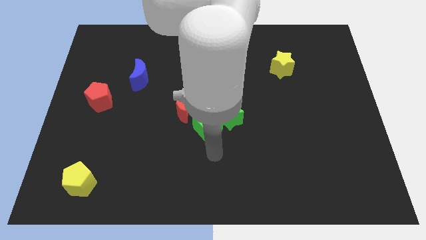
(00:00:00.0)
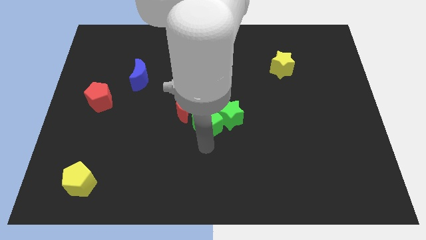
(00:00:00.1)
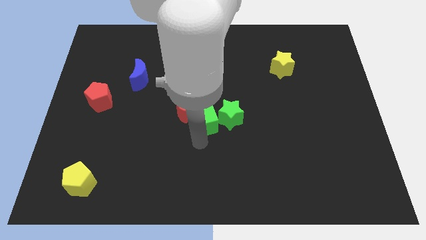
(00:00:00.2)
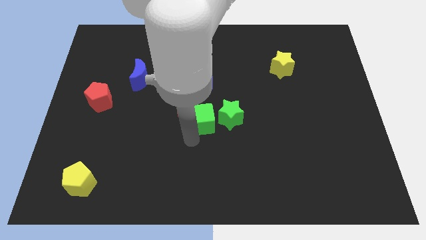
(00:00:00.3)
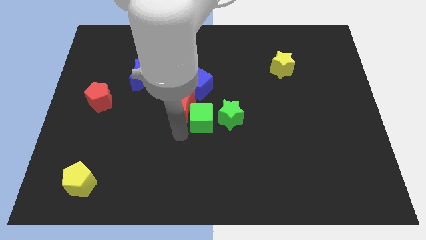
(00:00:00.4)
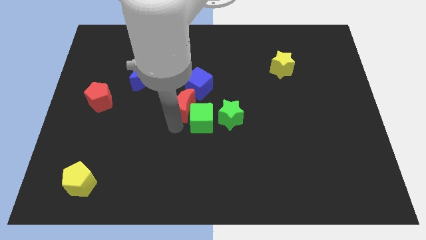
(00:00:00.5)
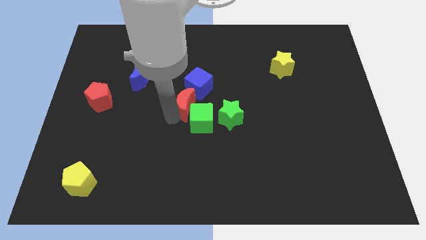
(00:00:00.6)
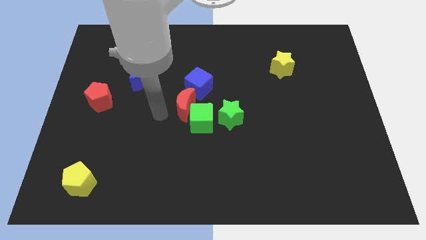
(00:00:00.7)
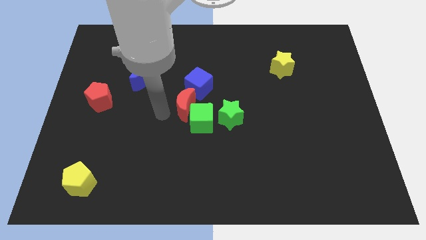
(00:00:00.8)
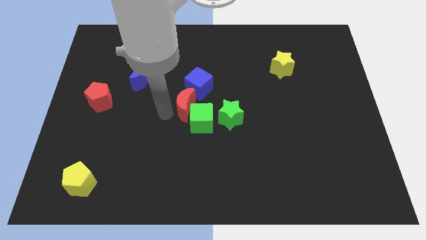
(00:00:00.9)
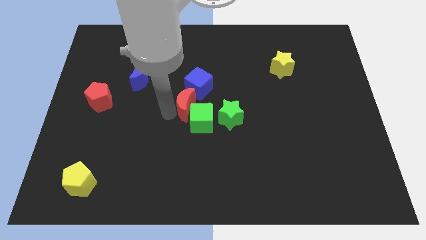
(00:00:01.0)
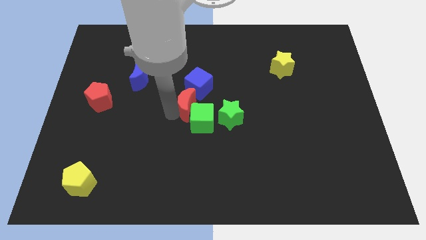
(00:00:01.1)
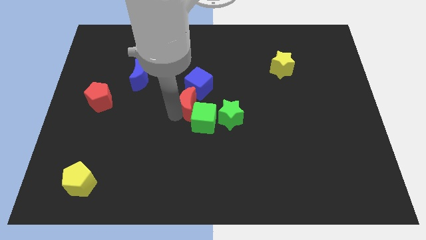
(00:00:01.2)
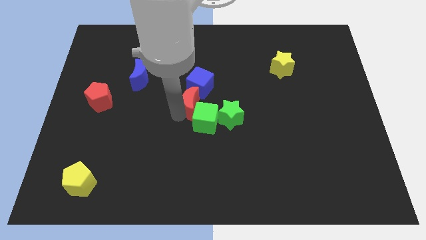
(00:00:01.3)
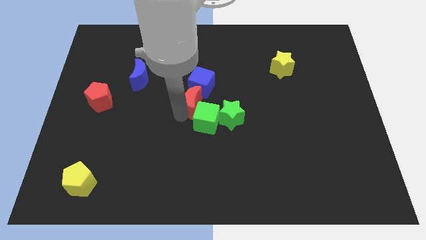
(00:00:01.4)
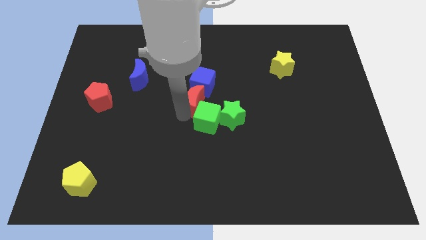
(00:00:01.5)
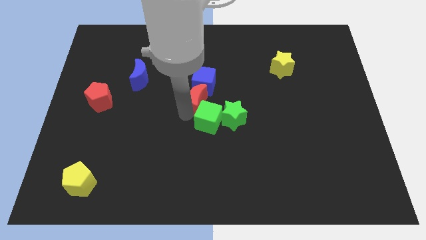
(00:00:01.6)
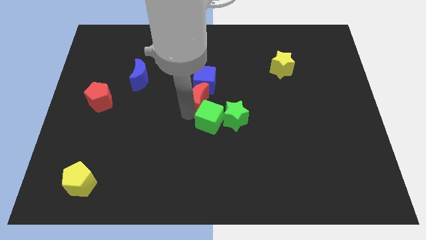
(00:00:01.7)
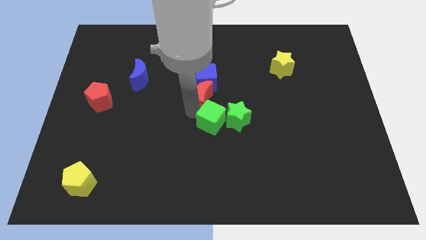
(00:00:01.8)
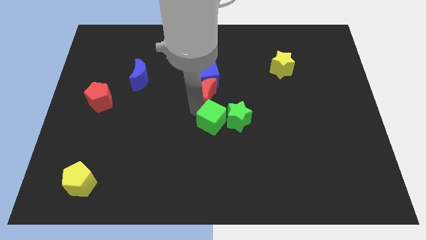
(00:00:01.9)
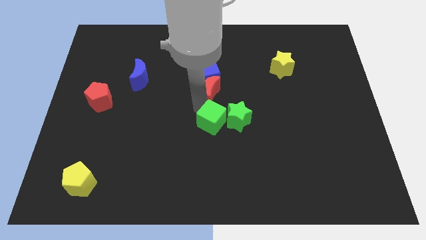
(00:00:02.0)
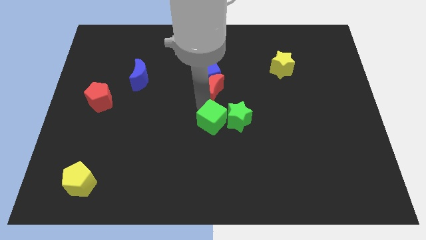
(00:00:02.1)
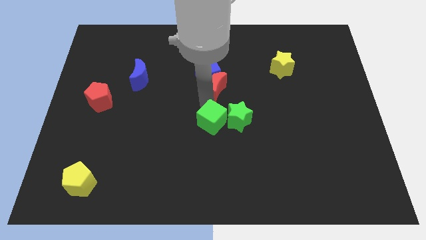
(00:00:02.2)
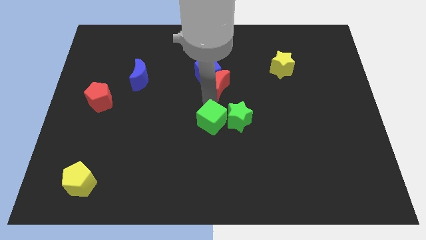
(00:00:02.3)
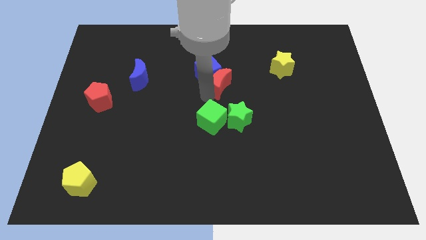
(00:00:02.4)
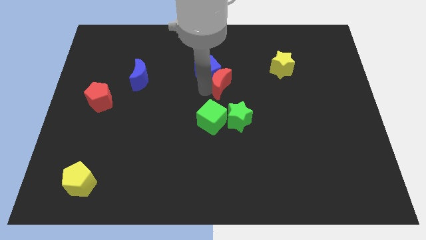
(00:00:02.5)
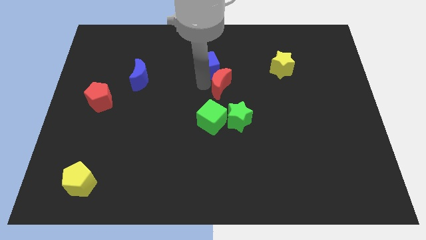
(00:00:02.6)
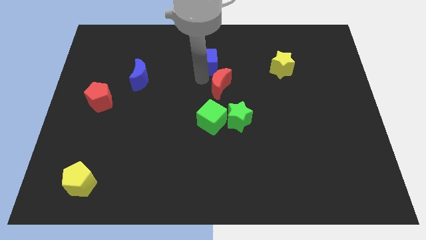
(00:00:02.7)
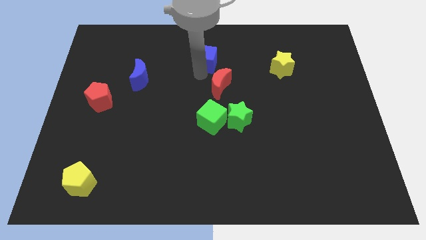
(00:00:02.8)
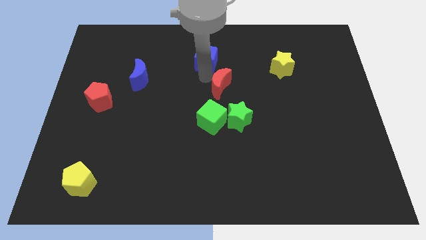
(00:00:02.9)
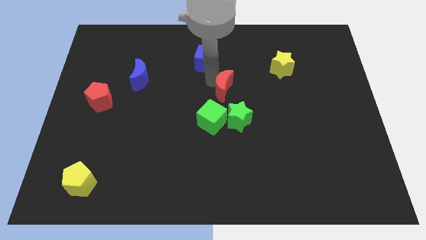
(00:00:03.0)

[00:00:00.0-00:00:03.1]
slightly slide the red moon to the right

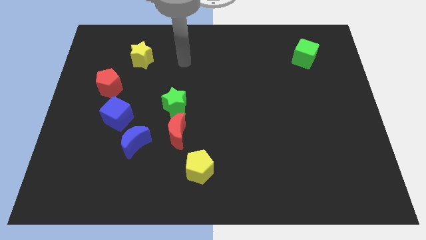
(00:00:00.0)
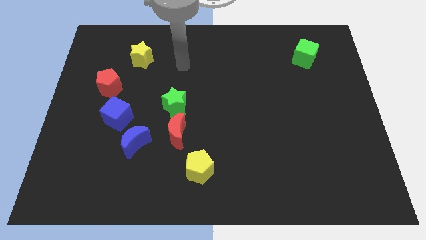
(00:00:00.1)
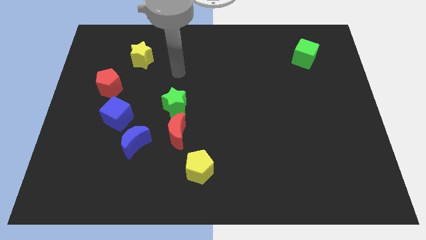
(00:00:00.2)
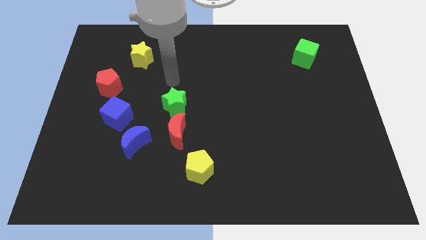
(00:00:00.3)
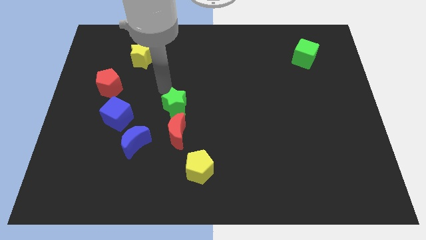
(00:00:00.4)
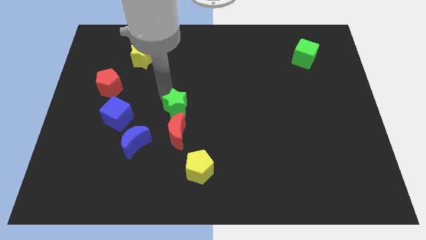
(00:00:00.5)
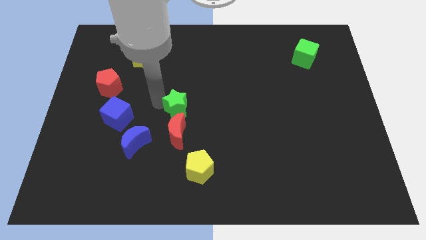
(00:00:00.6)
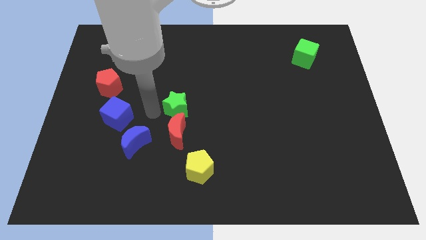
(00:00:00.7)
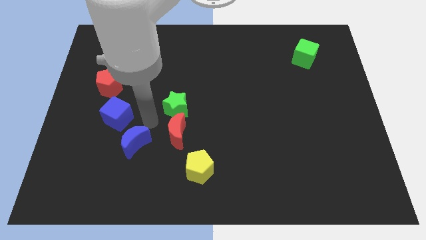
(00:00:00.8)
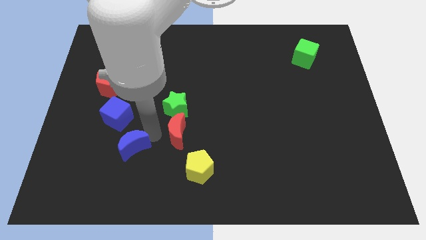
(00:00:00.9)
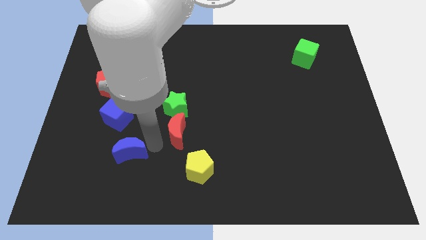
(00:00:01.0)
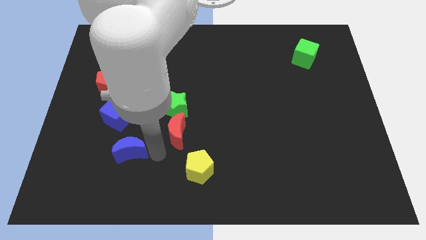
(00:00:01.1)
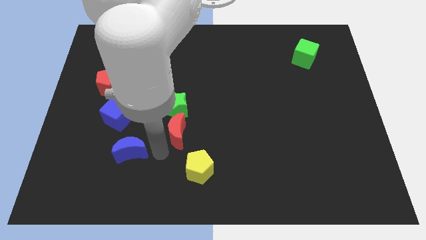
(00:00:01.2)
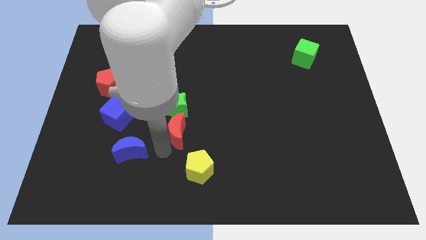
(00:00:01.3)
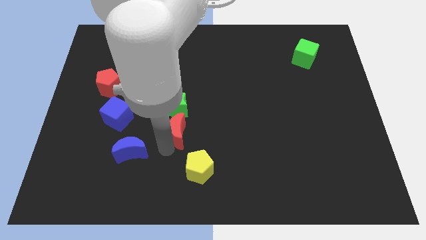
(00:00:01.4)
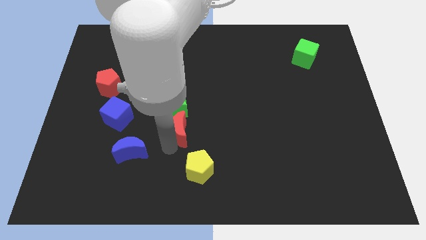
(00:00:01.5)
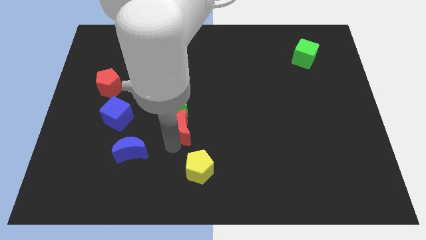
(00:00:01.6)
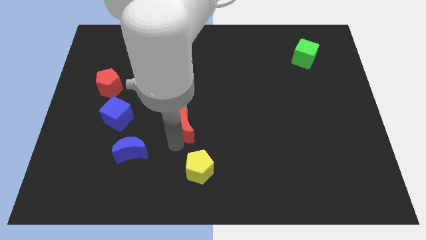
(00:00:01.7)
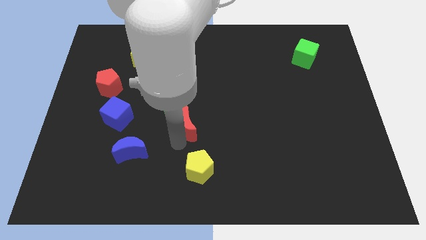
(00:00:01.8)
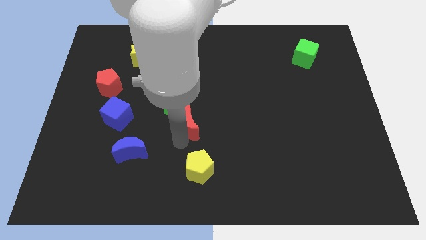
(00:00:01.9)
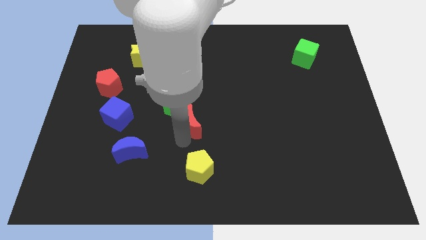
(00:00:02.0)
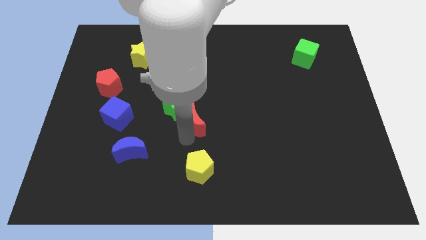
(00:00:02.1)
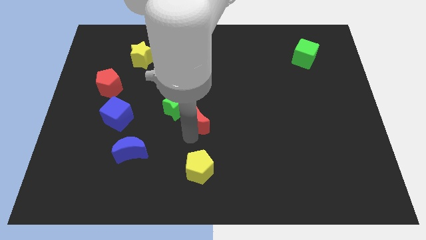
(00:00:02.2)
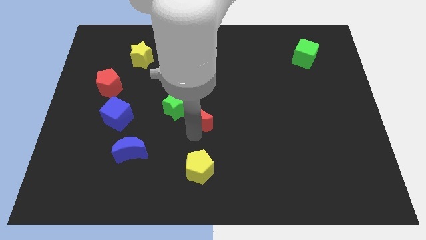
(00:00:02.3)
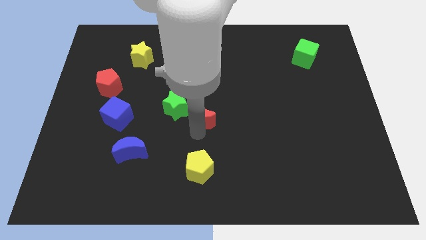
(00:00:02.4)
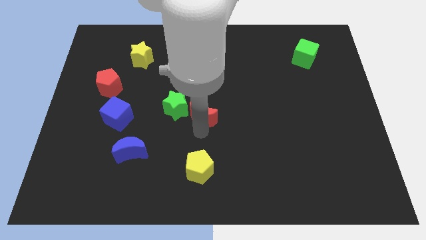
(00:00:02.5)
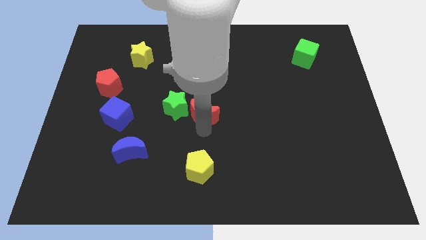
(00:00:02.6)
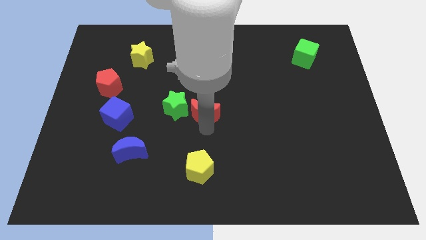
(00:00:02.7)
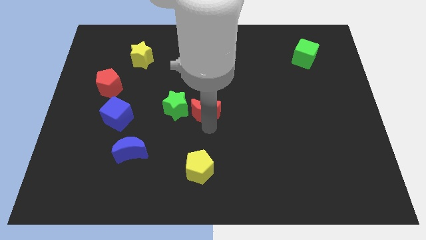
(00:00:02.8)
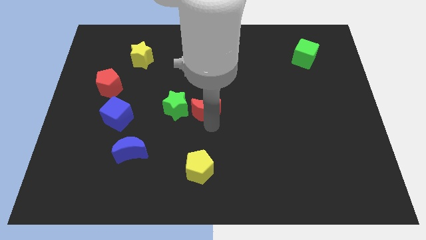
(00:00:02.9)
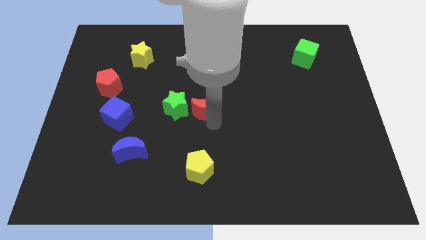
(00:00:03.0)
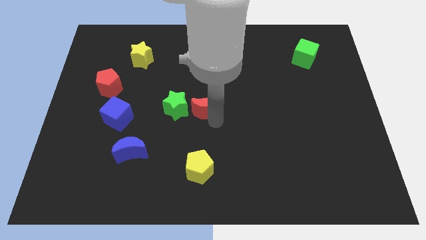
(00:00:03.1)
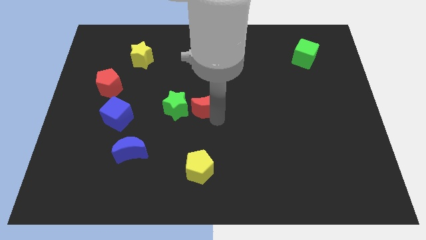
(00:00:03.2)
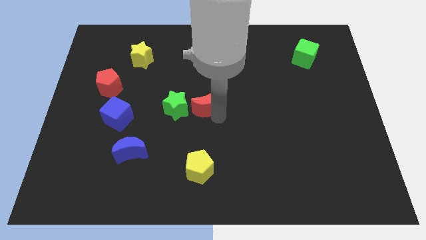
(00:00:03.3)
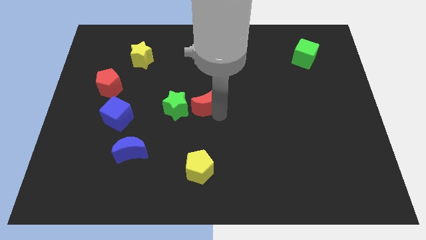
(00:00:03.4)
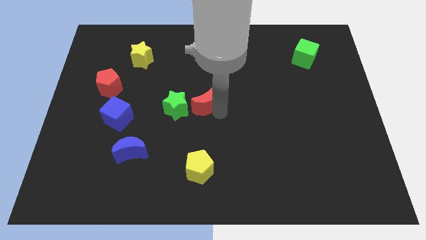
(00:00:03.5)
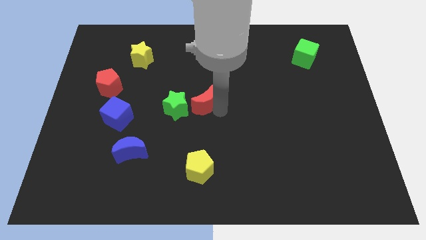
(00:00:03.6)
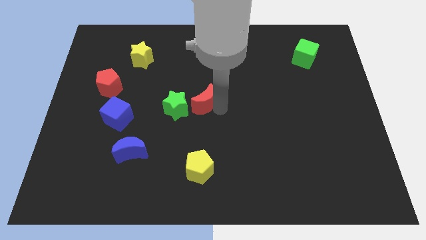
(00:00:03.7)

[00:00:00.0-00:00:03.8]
slide the red moon upwards a bit

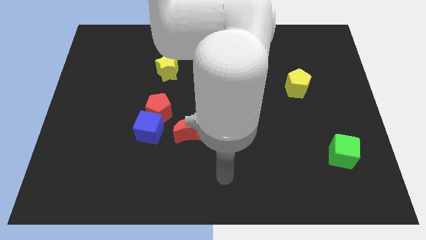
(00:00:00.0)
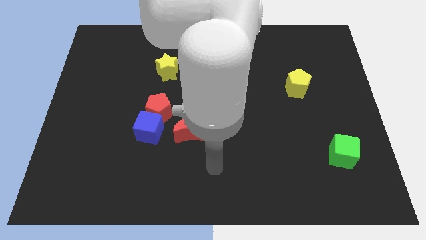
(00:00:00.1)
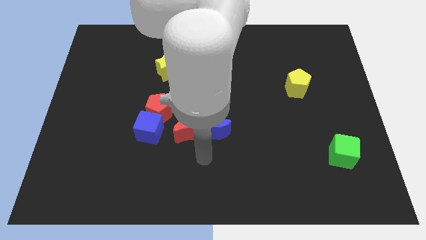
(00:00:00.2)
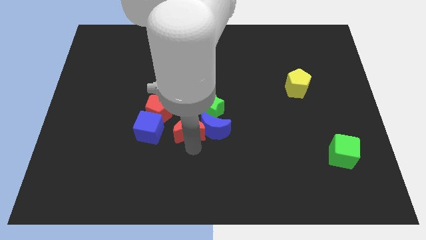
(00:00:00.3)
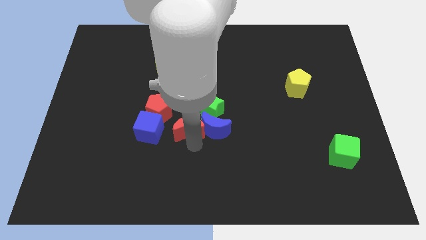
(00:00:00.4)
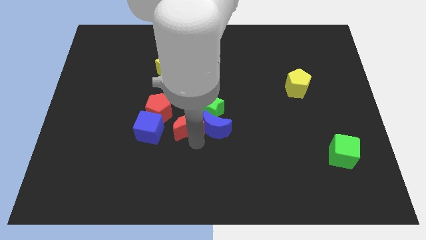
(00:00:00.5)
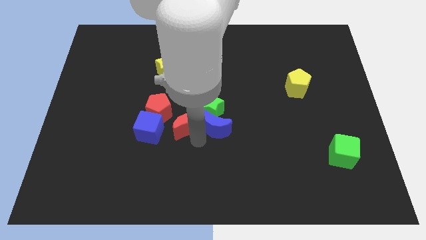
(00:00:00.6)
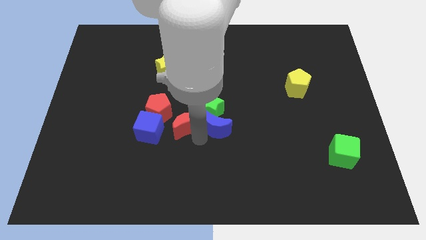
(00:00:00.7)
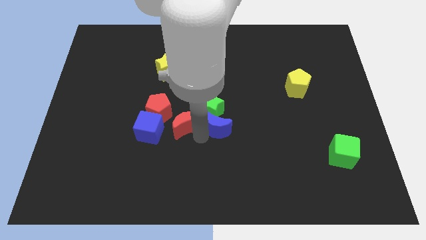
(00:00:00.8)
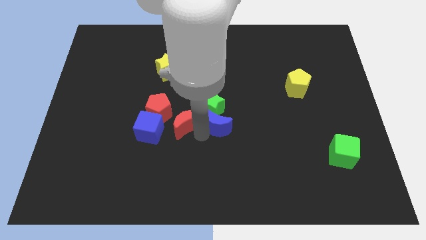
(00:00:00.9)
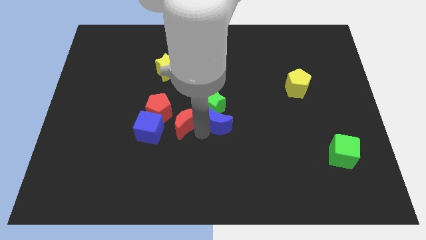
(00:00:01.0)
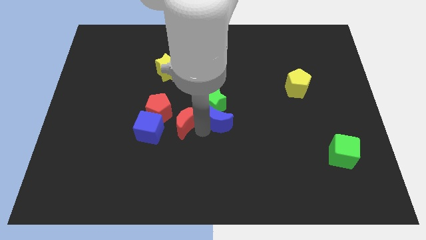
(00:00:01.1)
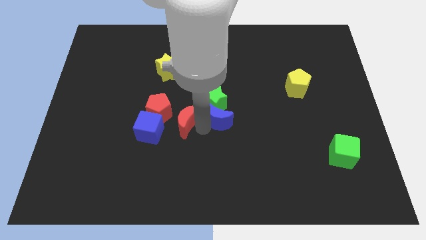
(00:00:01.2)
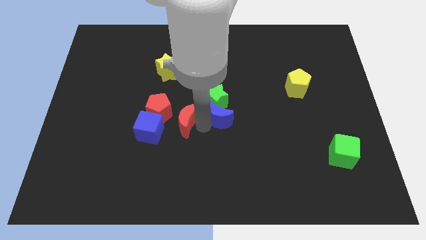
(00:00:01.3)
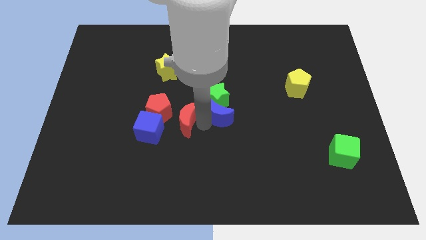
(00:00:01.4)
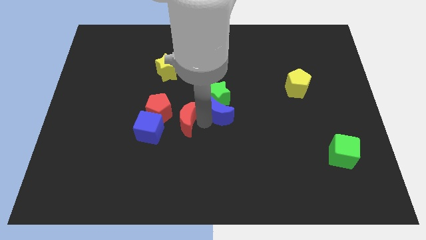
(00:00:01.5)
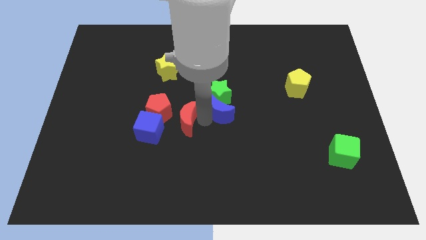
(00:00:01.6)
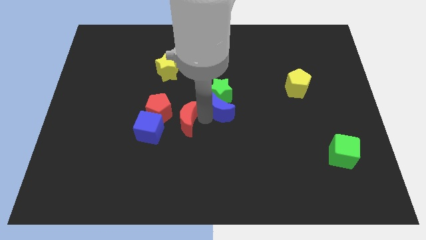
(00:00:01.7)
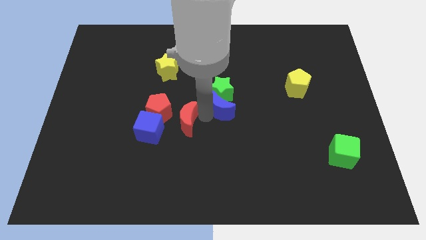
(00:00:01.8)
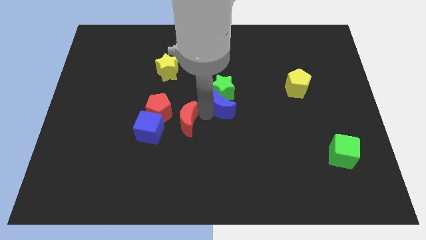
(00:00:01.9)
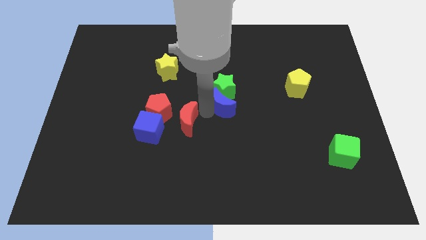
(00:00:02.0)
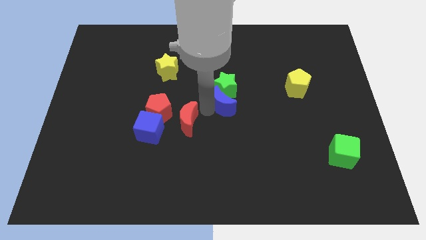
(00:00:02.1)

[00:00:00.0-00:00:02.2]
slide the blue moon slightly up
